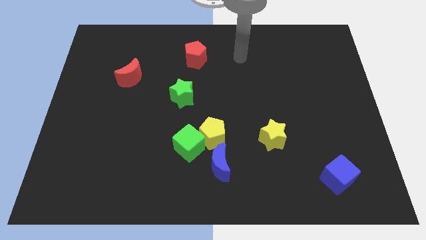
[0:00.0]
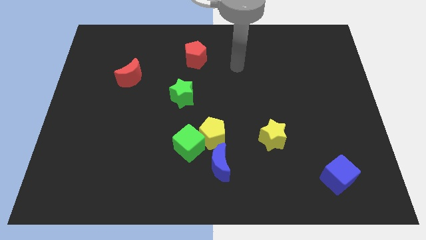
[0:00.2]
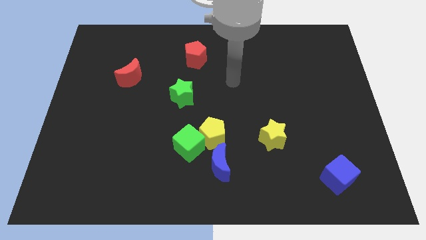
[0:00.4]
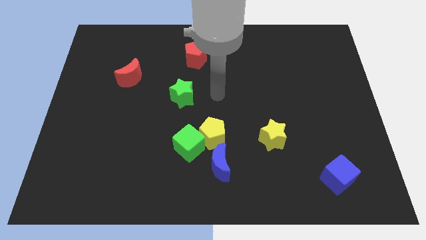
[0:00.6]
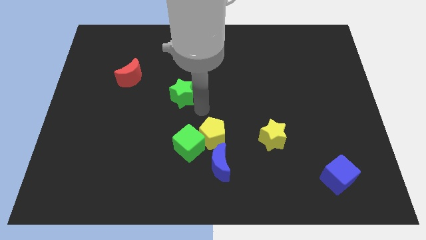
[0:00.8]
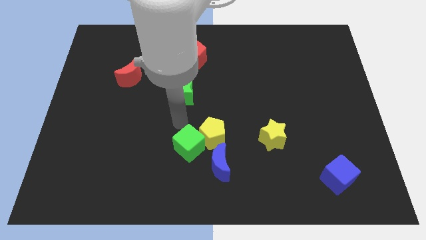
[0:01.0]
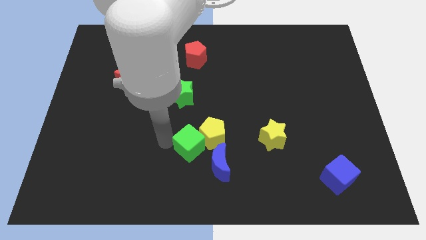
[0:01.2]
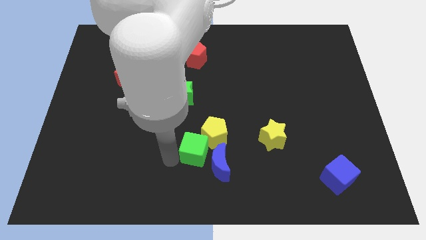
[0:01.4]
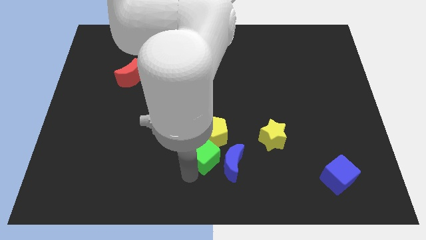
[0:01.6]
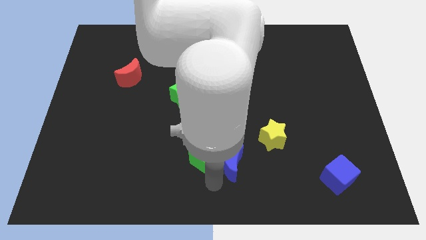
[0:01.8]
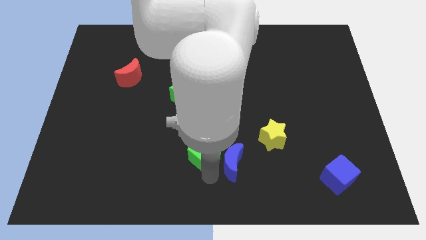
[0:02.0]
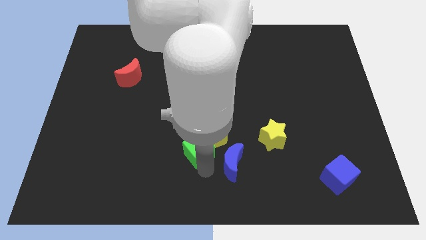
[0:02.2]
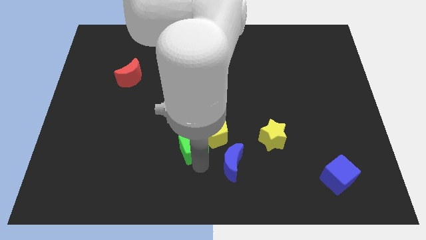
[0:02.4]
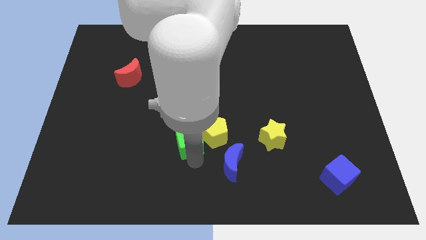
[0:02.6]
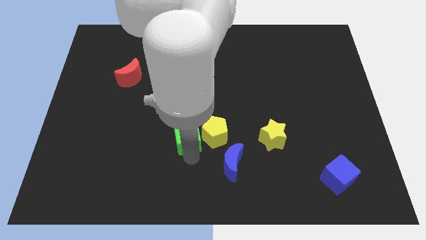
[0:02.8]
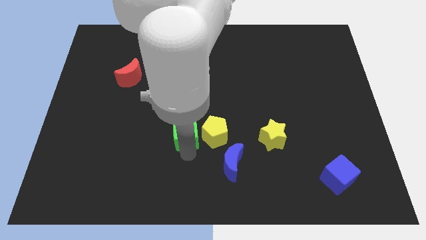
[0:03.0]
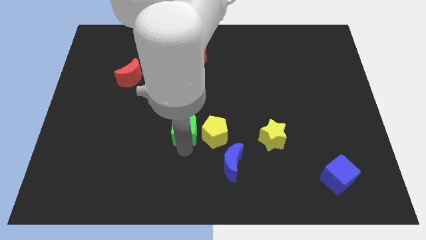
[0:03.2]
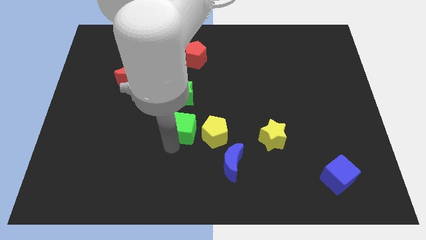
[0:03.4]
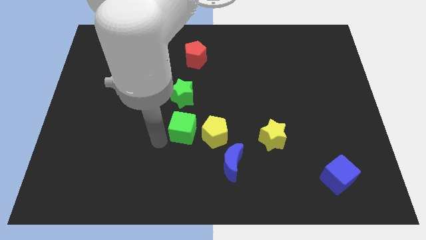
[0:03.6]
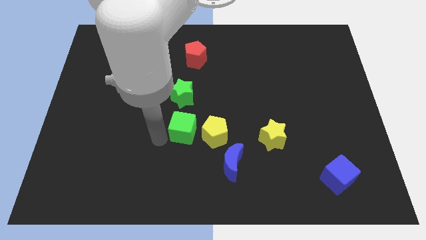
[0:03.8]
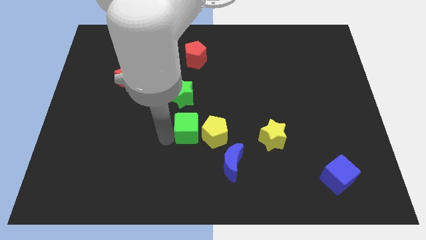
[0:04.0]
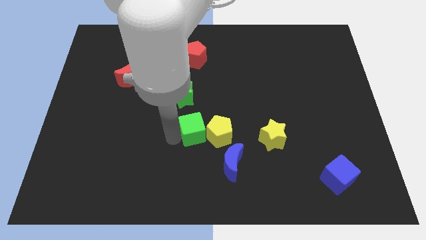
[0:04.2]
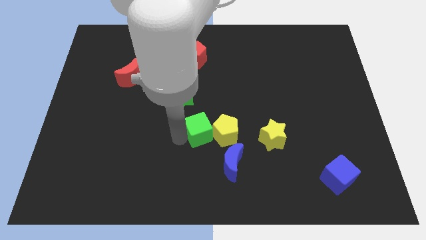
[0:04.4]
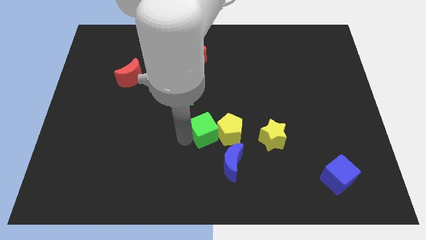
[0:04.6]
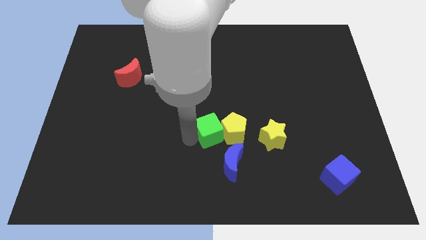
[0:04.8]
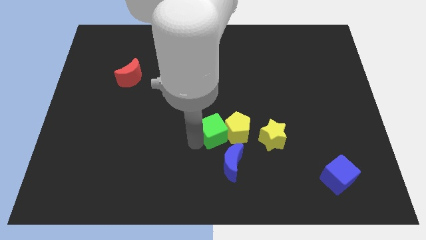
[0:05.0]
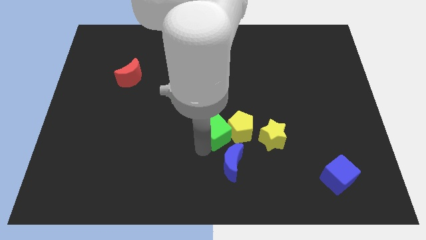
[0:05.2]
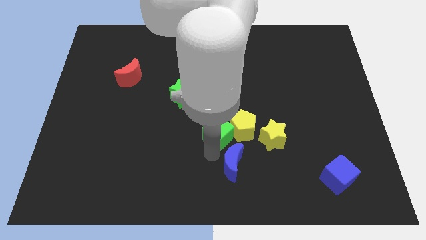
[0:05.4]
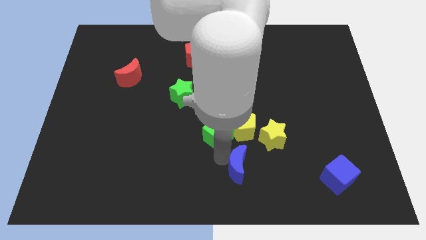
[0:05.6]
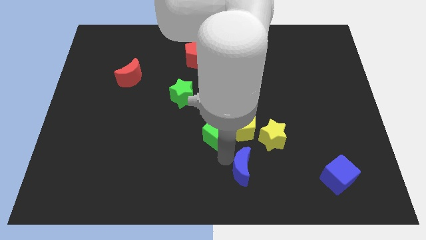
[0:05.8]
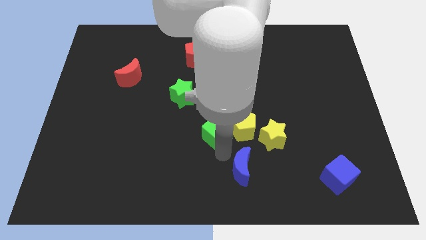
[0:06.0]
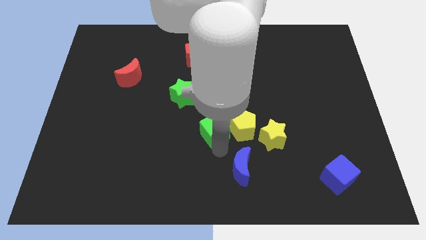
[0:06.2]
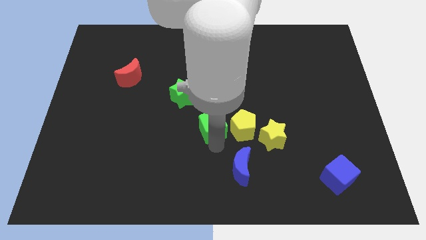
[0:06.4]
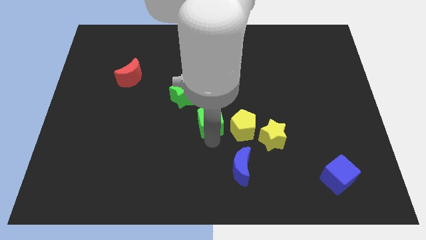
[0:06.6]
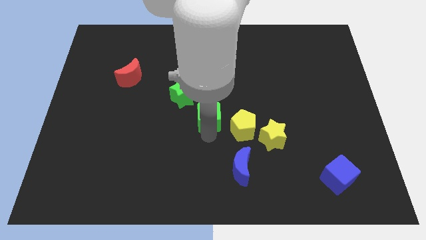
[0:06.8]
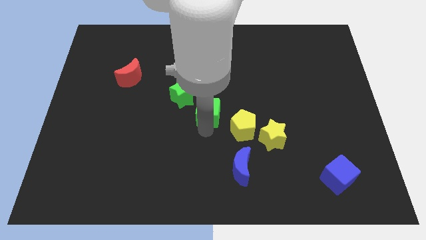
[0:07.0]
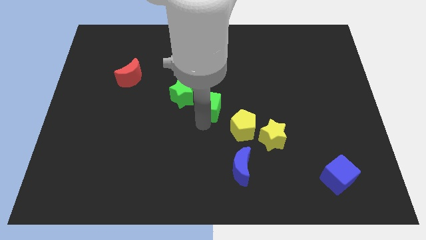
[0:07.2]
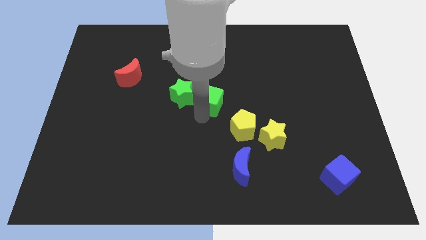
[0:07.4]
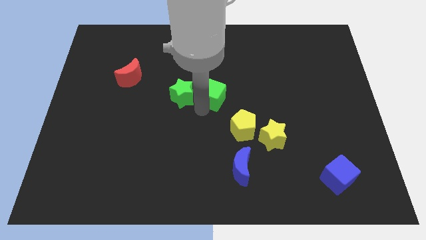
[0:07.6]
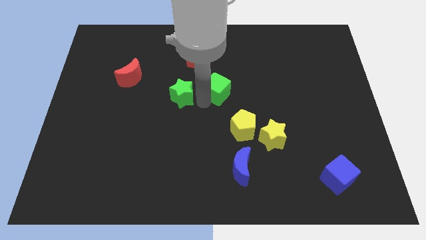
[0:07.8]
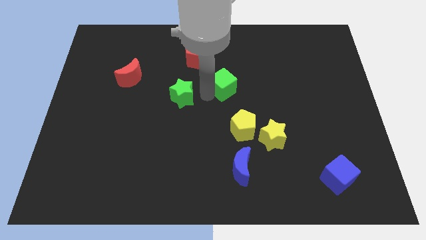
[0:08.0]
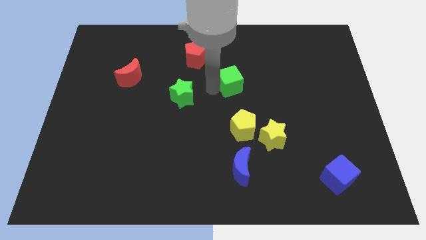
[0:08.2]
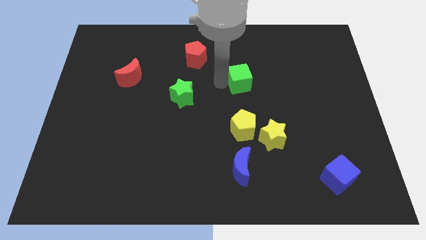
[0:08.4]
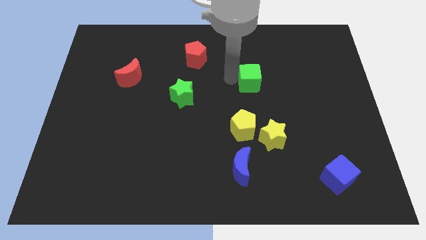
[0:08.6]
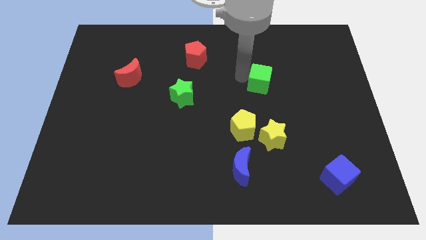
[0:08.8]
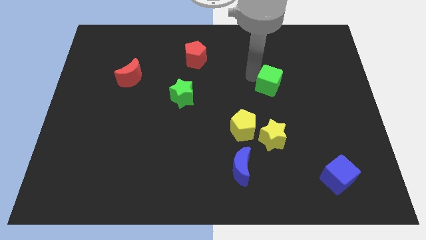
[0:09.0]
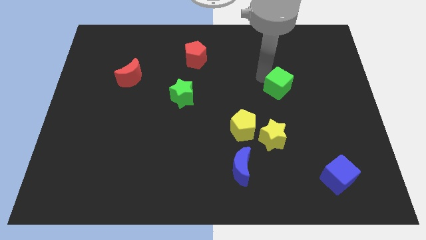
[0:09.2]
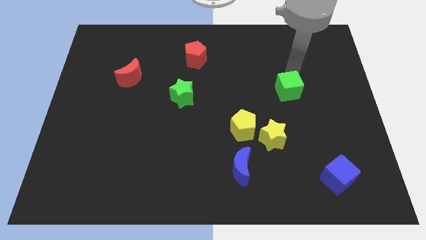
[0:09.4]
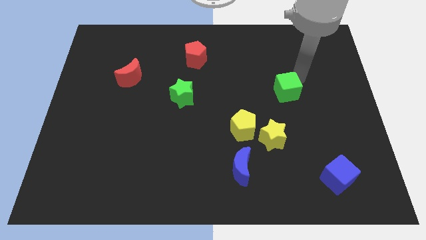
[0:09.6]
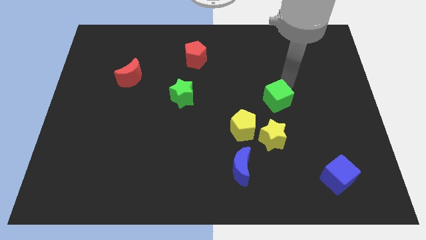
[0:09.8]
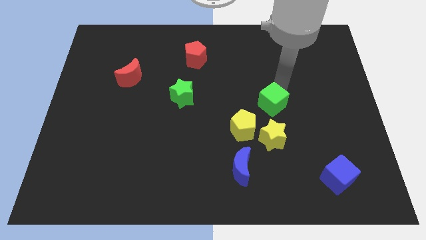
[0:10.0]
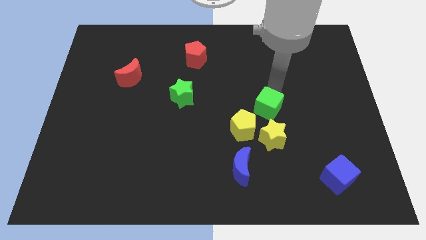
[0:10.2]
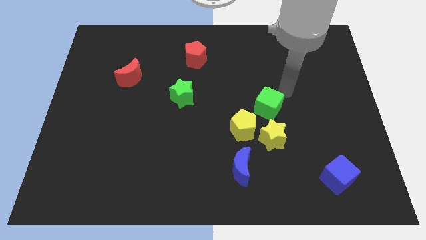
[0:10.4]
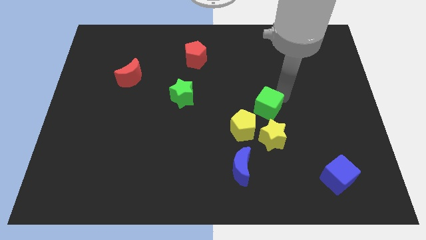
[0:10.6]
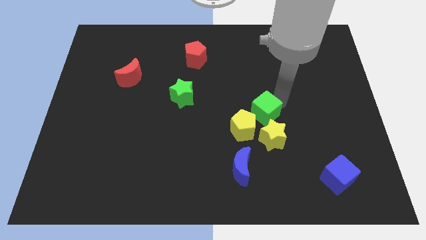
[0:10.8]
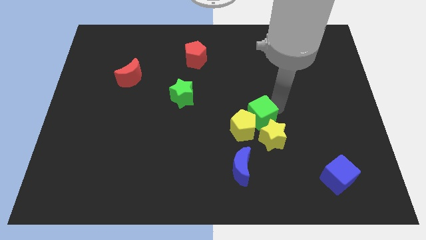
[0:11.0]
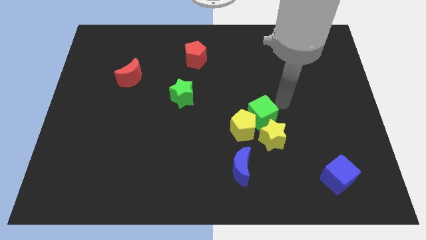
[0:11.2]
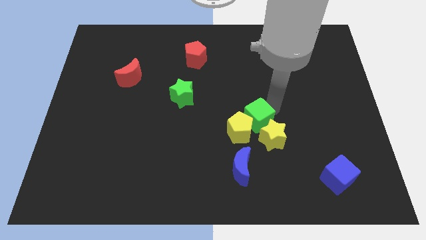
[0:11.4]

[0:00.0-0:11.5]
move the green cube to the yellow star
